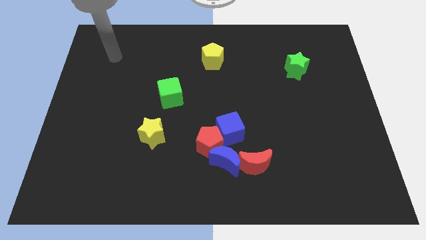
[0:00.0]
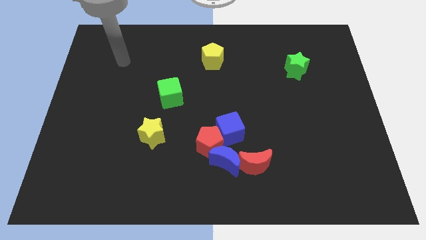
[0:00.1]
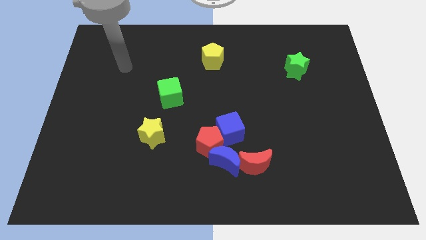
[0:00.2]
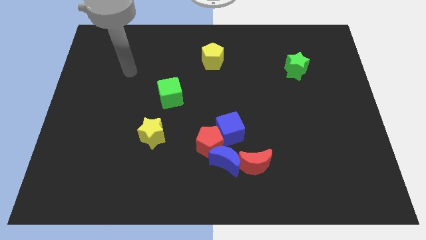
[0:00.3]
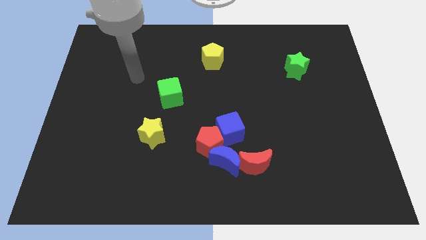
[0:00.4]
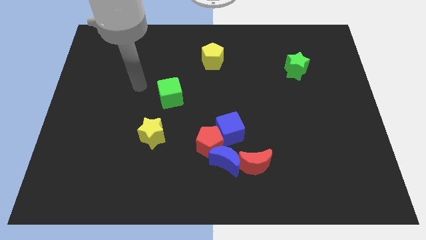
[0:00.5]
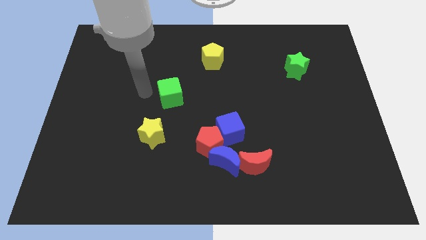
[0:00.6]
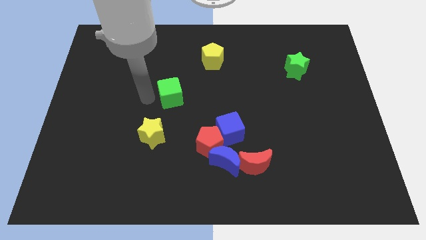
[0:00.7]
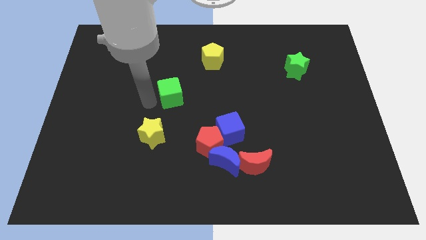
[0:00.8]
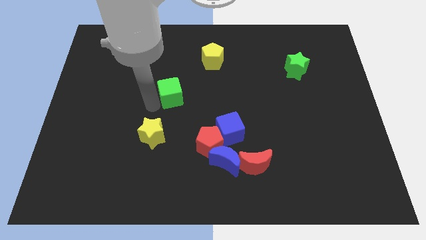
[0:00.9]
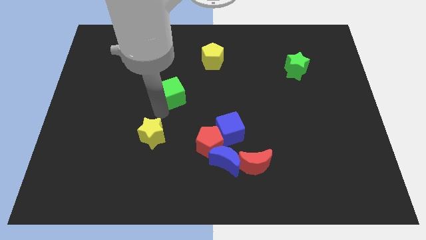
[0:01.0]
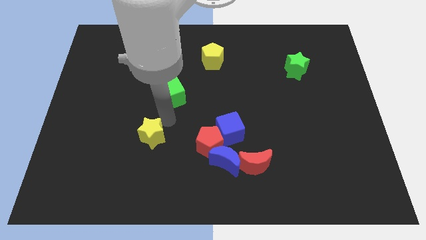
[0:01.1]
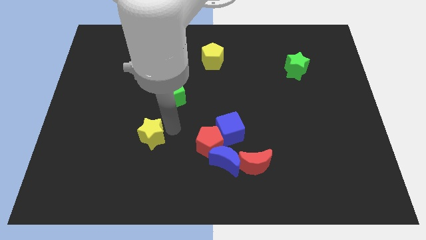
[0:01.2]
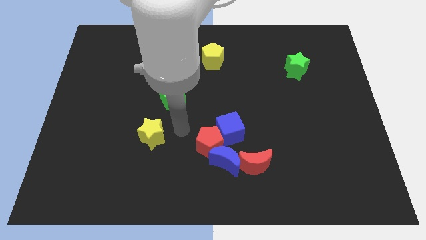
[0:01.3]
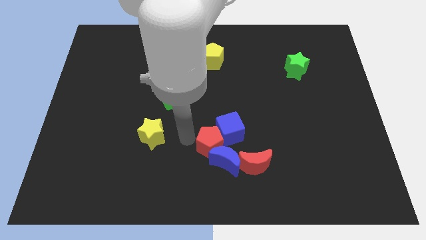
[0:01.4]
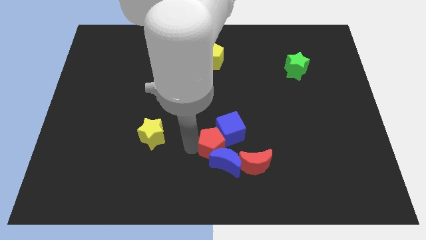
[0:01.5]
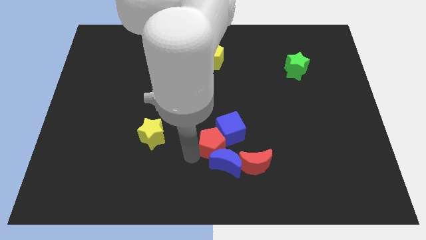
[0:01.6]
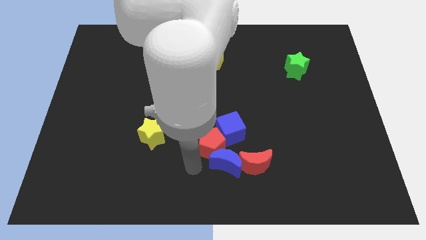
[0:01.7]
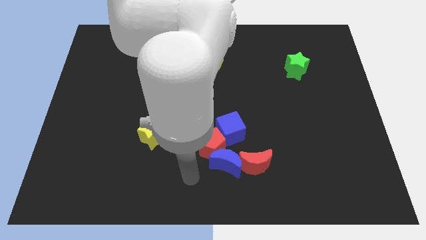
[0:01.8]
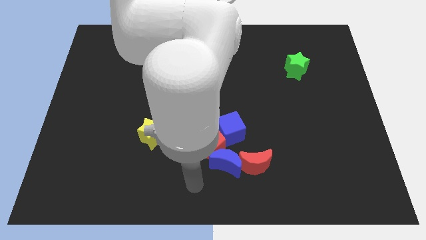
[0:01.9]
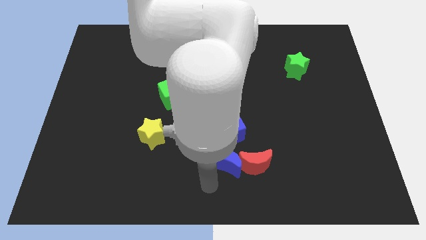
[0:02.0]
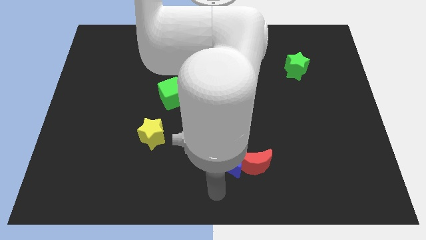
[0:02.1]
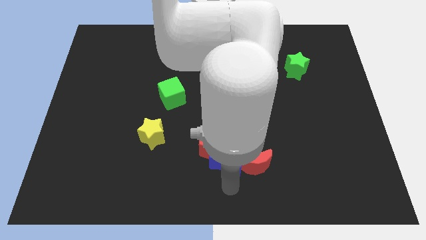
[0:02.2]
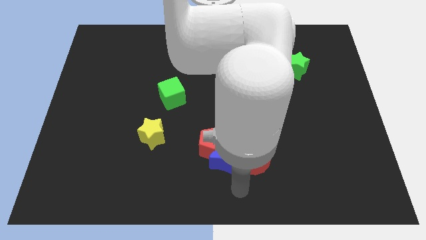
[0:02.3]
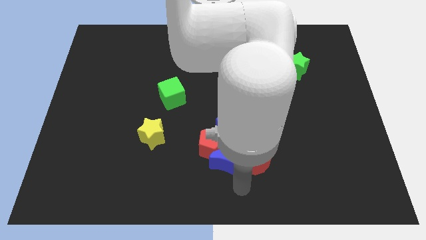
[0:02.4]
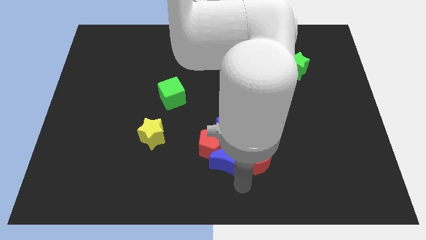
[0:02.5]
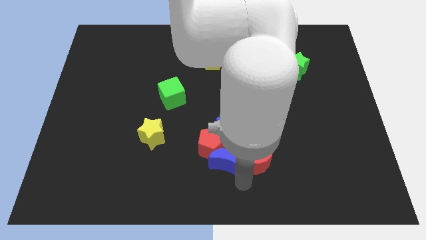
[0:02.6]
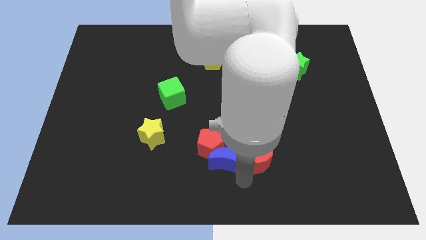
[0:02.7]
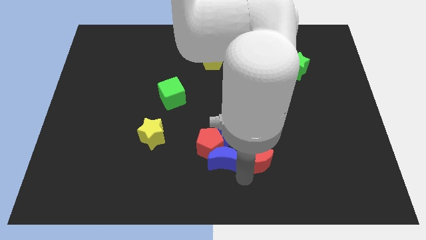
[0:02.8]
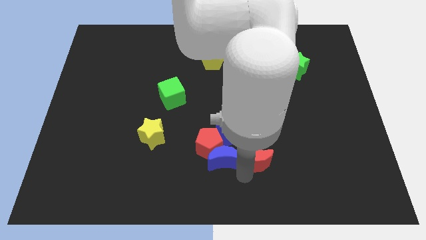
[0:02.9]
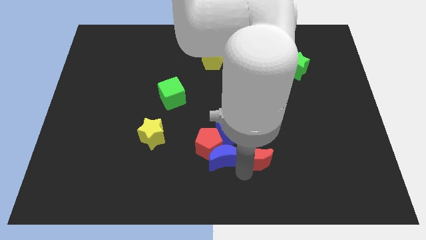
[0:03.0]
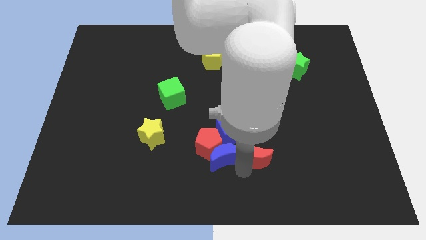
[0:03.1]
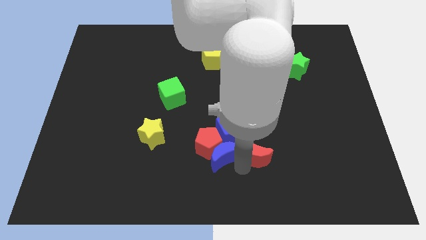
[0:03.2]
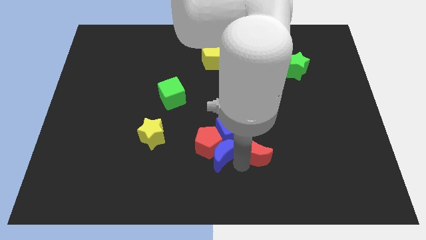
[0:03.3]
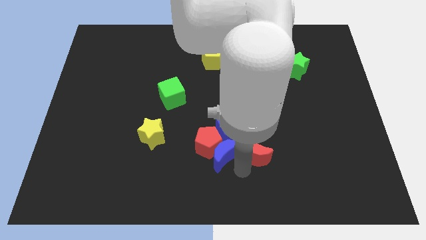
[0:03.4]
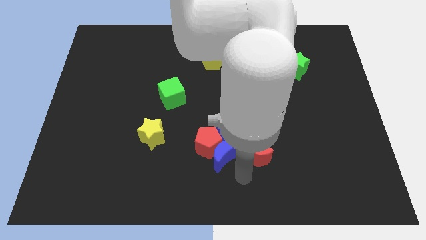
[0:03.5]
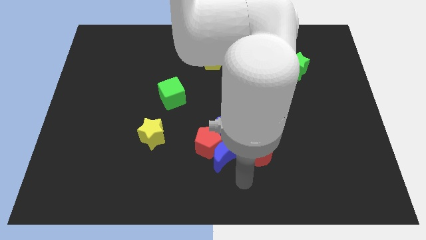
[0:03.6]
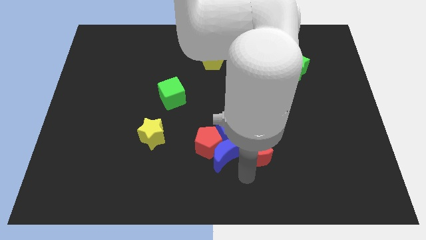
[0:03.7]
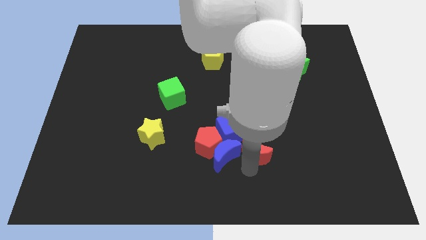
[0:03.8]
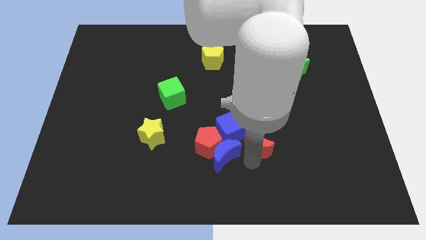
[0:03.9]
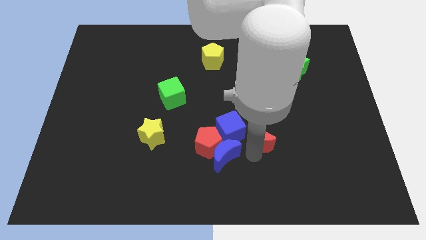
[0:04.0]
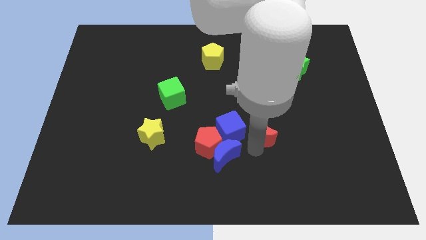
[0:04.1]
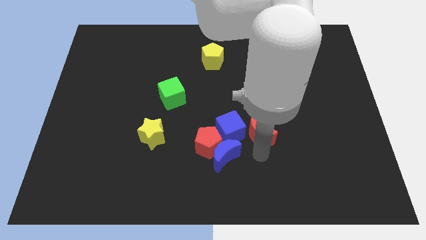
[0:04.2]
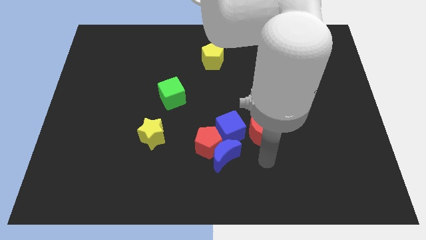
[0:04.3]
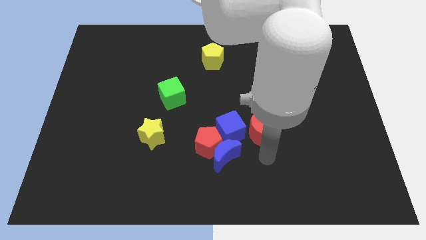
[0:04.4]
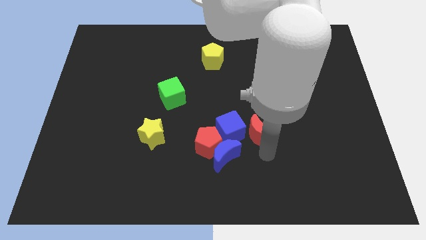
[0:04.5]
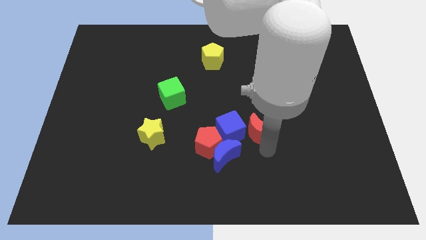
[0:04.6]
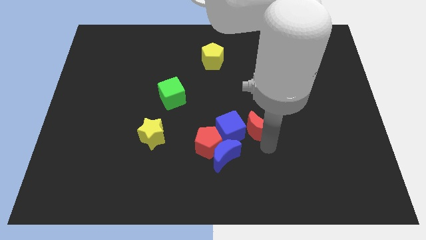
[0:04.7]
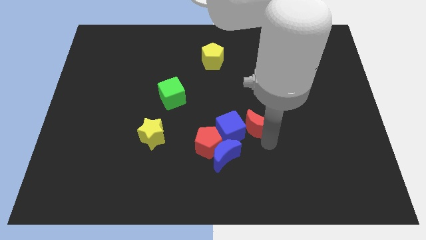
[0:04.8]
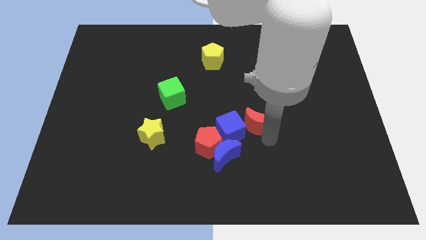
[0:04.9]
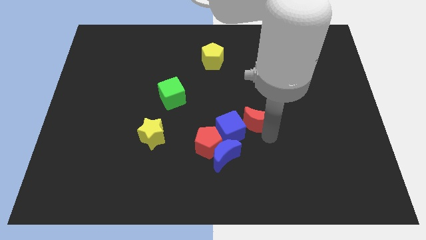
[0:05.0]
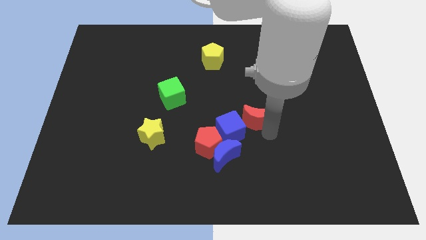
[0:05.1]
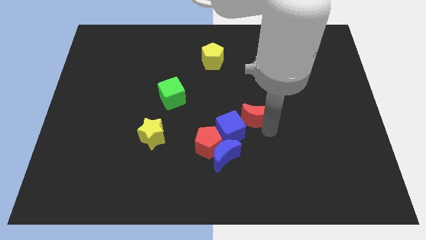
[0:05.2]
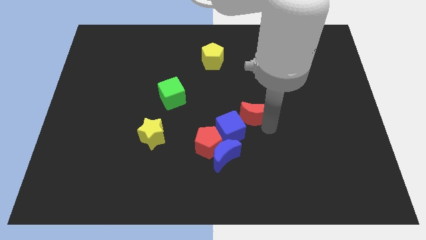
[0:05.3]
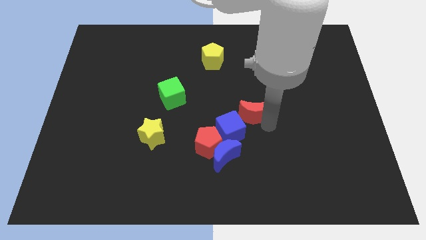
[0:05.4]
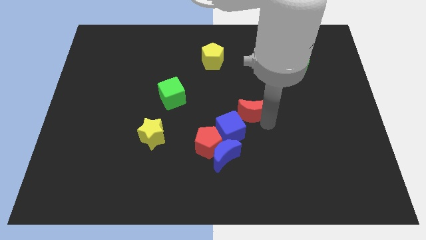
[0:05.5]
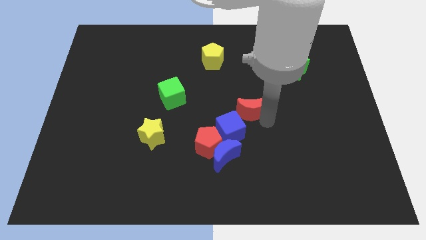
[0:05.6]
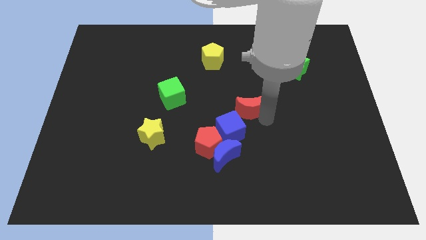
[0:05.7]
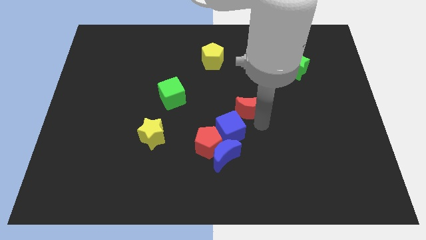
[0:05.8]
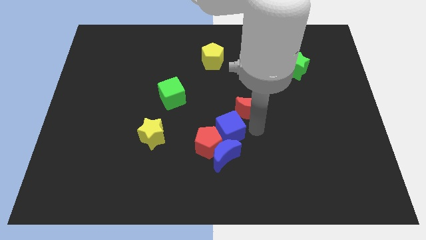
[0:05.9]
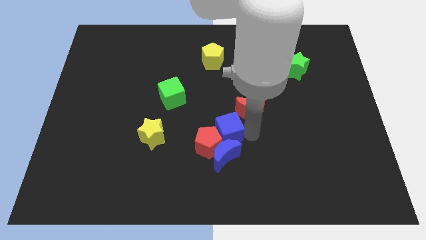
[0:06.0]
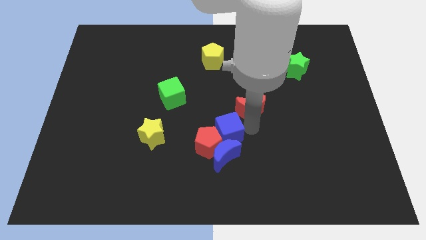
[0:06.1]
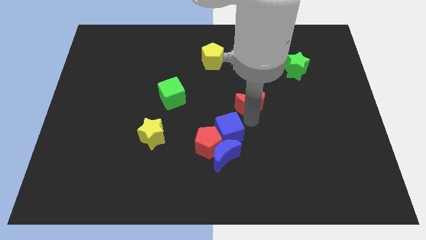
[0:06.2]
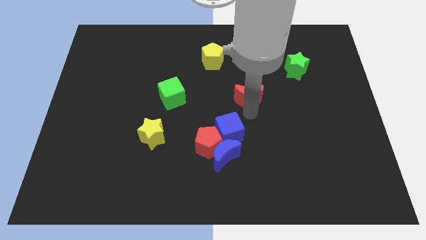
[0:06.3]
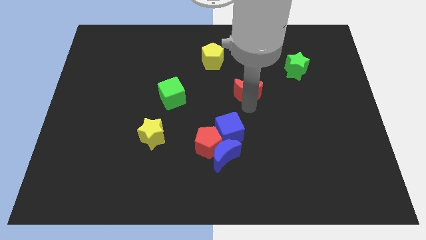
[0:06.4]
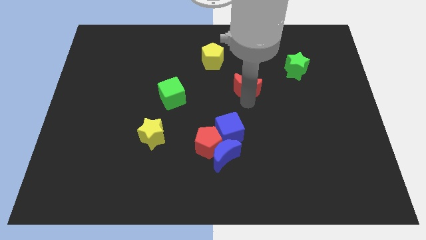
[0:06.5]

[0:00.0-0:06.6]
slide the red moon up

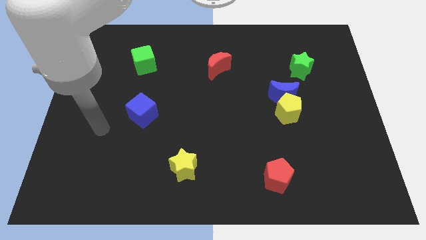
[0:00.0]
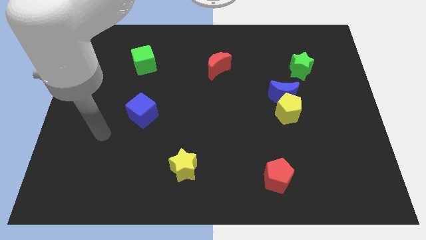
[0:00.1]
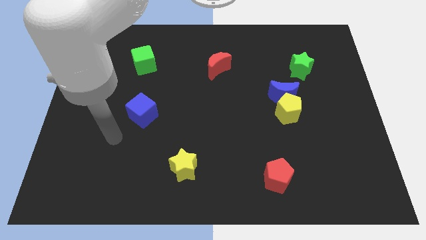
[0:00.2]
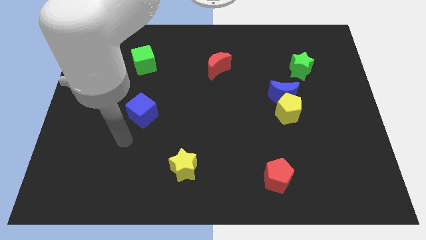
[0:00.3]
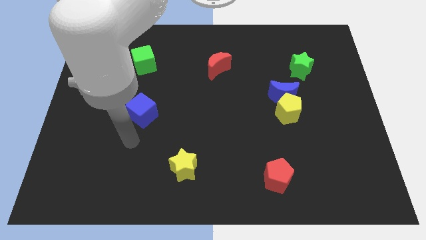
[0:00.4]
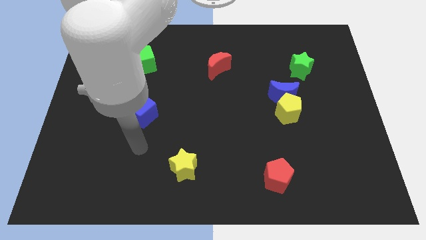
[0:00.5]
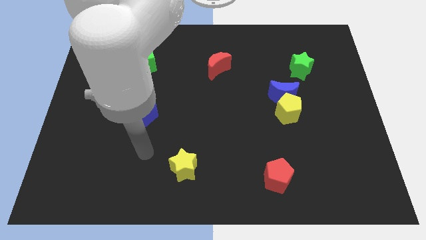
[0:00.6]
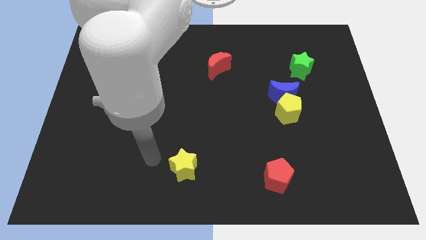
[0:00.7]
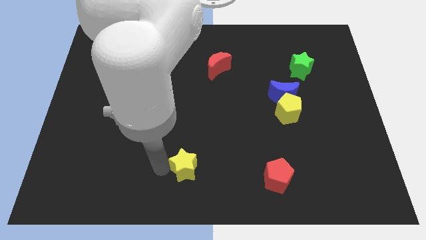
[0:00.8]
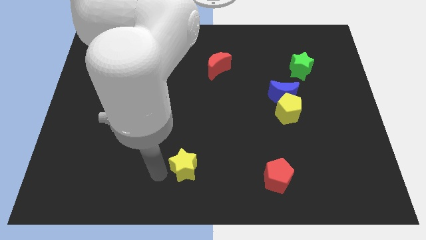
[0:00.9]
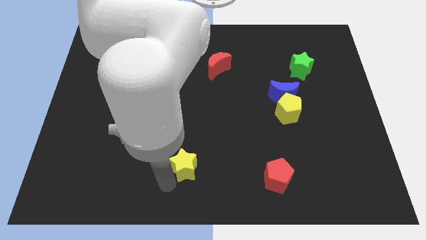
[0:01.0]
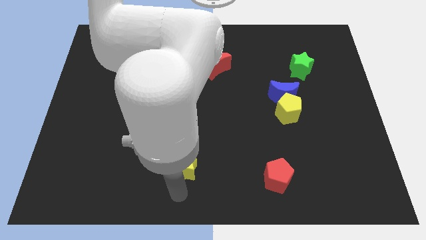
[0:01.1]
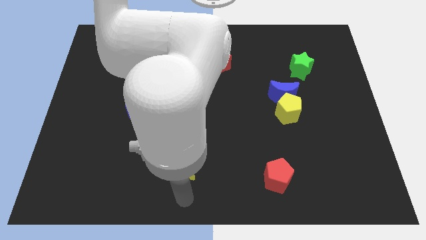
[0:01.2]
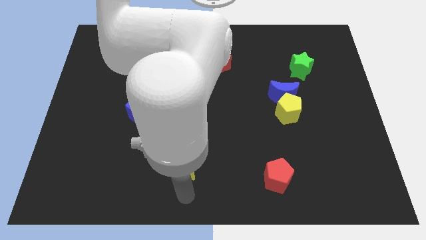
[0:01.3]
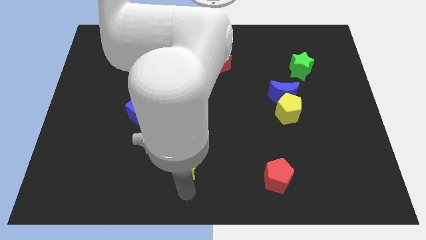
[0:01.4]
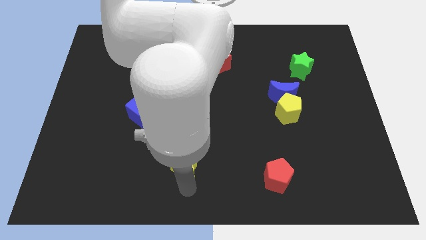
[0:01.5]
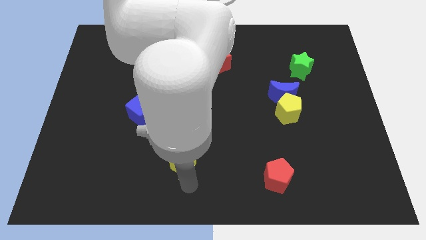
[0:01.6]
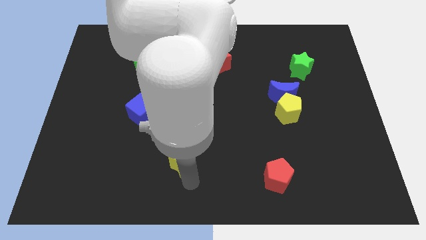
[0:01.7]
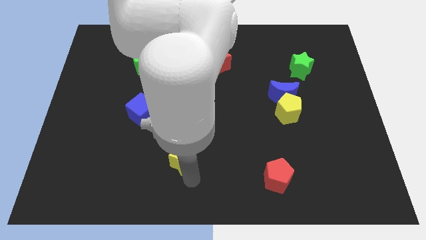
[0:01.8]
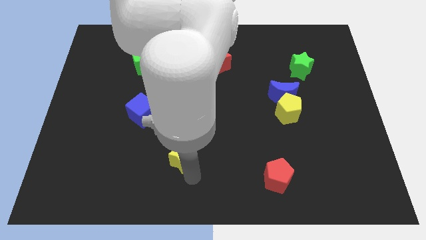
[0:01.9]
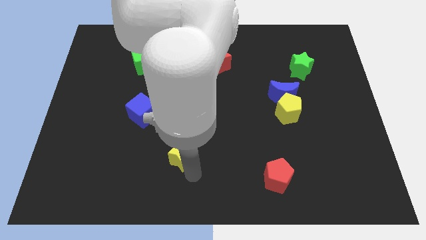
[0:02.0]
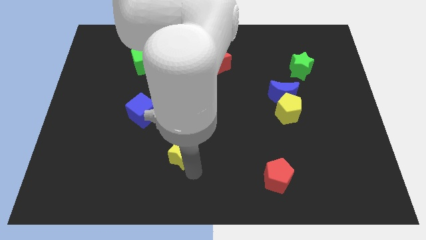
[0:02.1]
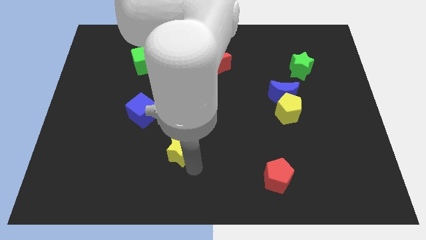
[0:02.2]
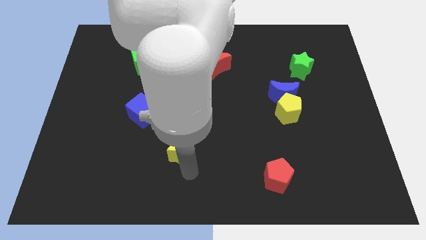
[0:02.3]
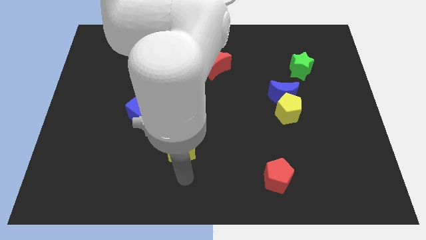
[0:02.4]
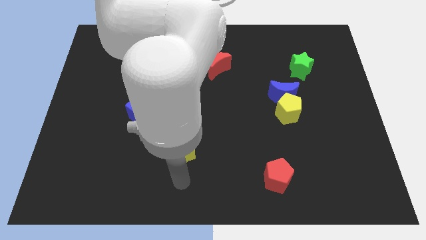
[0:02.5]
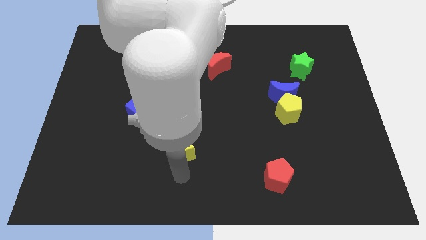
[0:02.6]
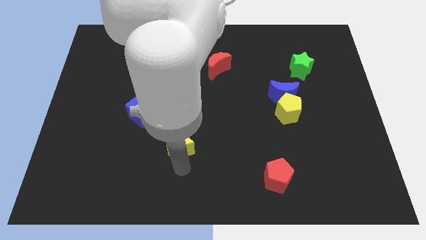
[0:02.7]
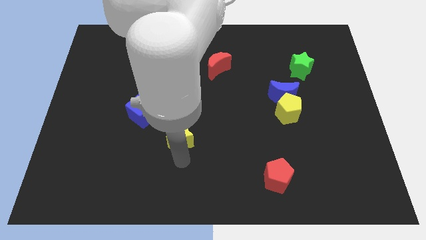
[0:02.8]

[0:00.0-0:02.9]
push the yellow star a little bit up
